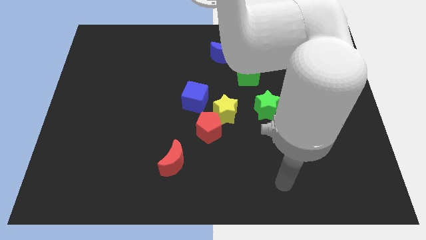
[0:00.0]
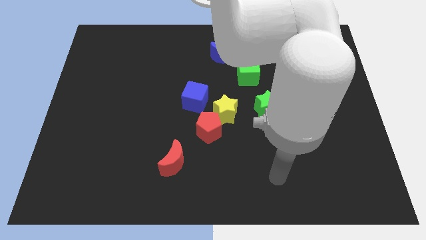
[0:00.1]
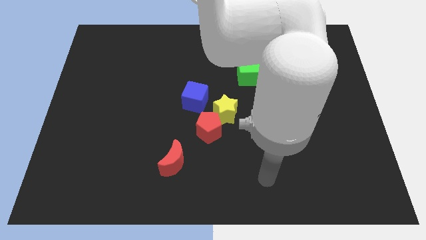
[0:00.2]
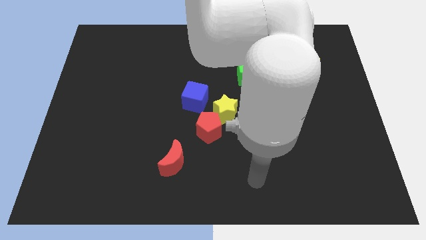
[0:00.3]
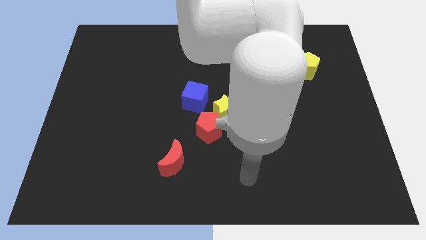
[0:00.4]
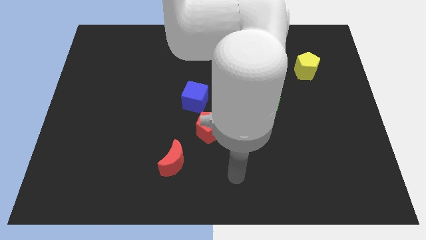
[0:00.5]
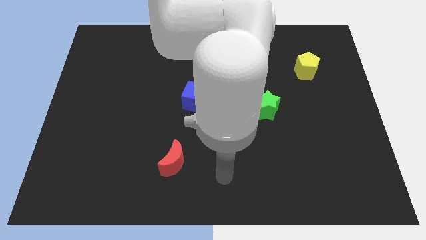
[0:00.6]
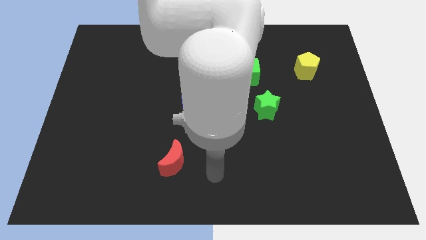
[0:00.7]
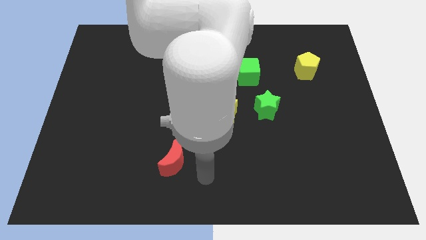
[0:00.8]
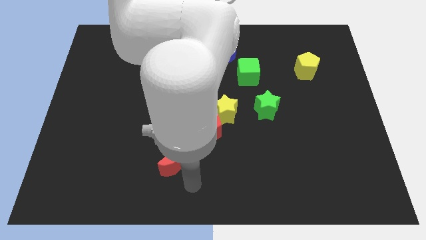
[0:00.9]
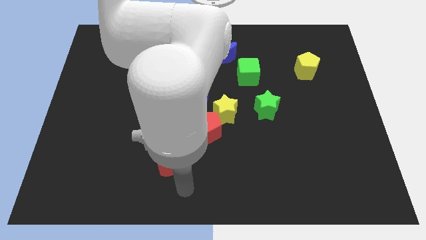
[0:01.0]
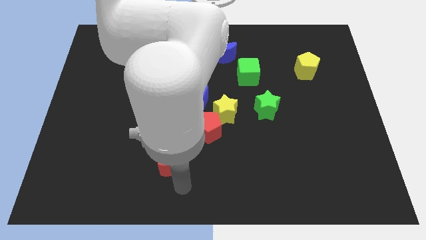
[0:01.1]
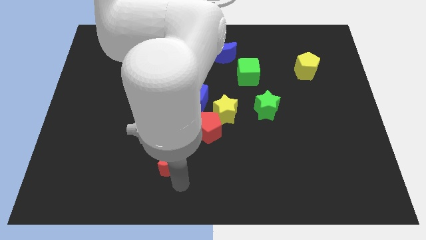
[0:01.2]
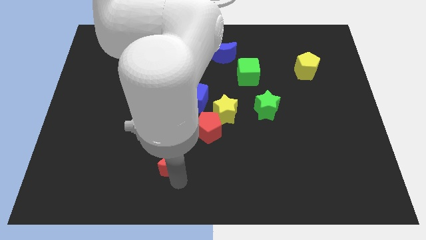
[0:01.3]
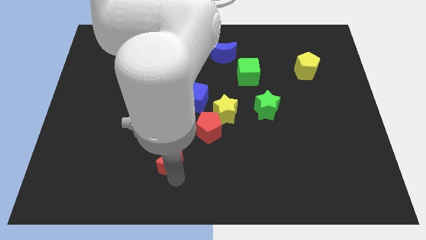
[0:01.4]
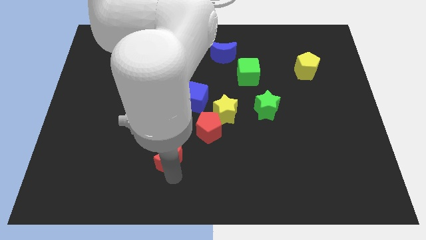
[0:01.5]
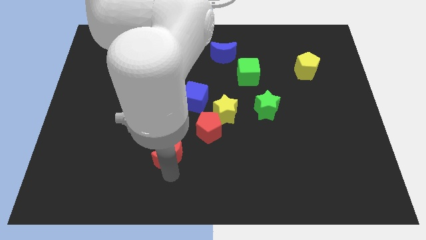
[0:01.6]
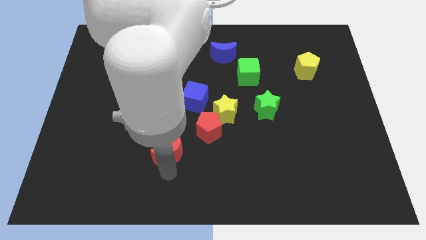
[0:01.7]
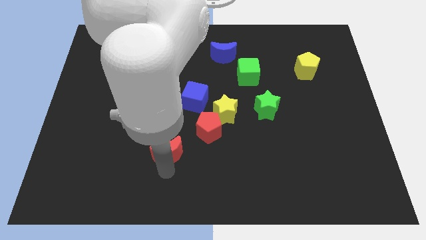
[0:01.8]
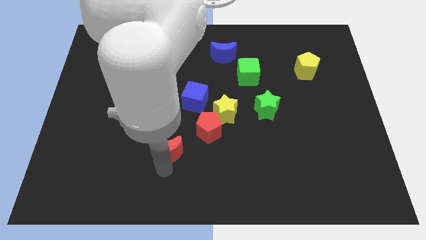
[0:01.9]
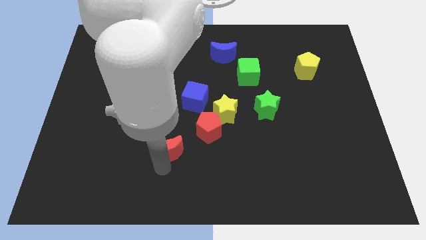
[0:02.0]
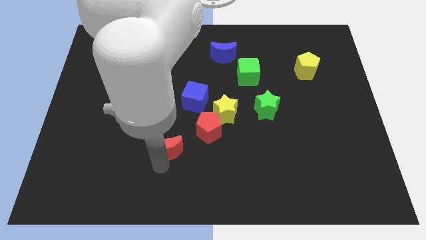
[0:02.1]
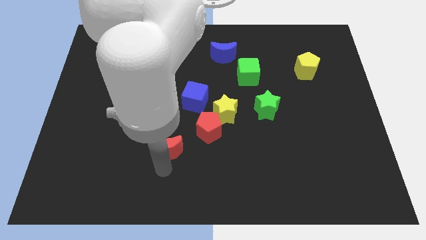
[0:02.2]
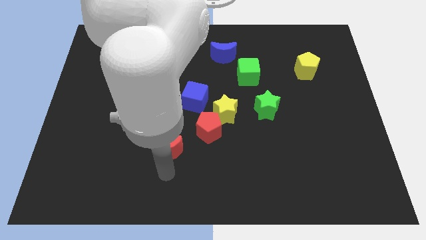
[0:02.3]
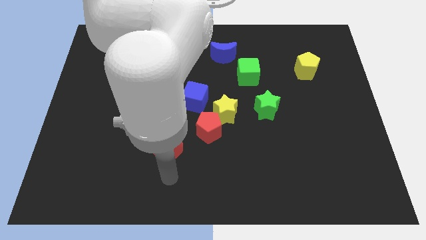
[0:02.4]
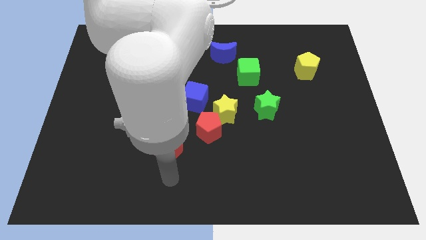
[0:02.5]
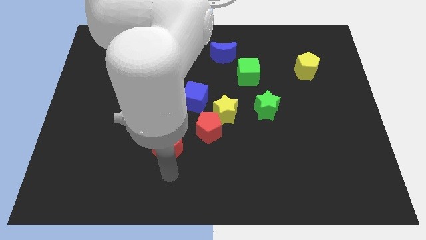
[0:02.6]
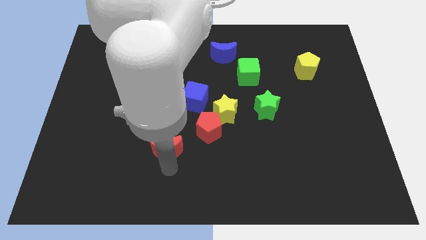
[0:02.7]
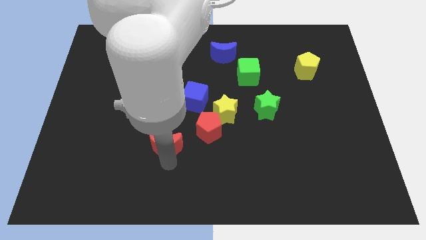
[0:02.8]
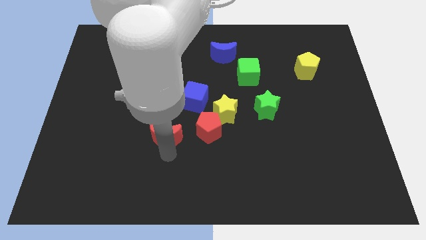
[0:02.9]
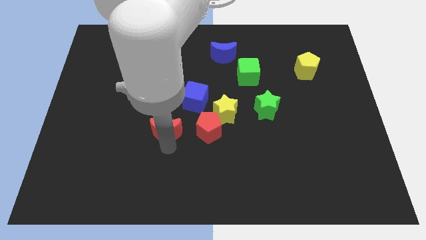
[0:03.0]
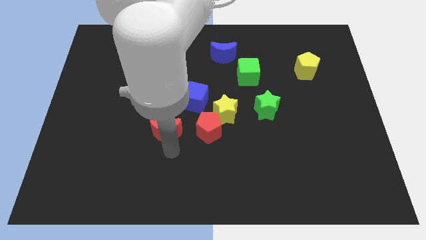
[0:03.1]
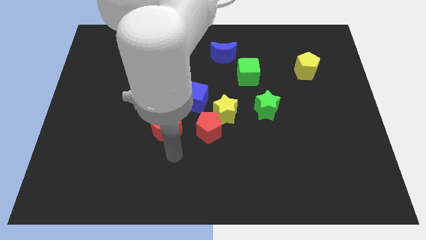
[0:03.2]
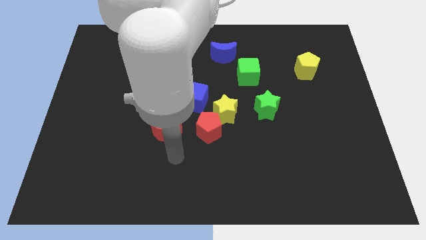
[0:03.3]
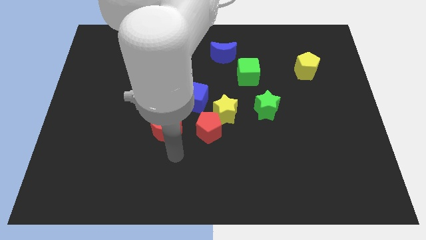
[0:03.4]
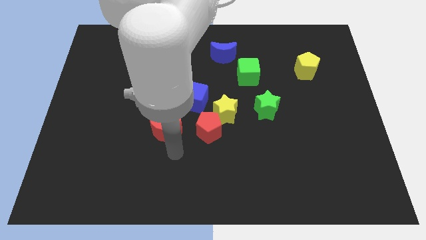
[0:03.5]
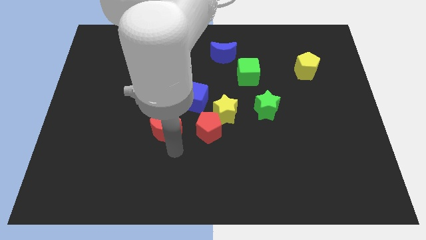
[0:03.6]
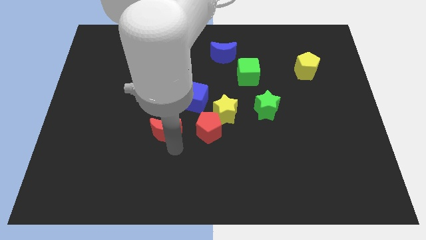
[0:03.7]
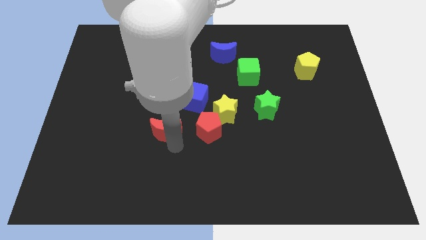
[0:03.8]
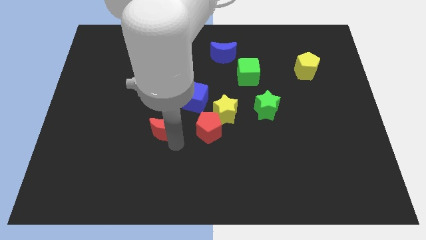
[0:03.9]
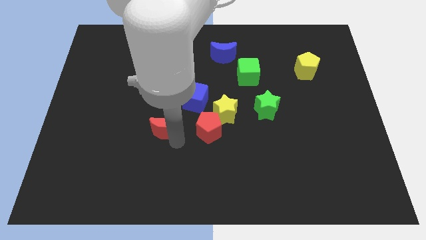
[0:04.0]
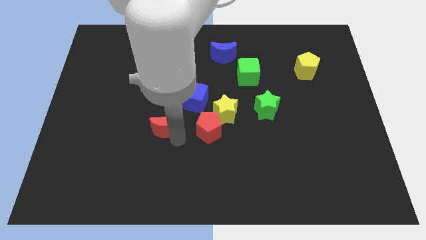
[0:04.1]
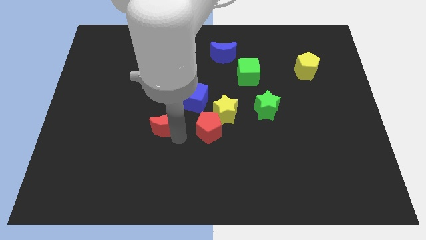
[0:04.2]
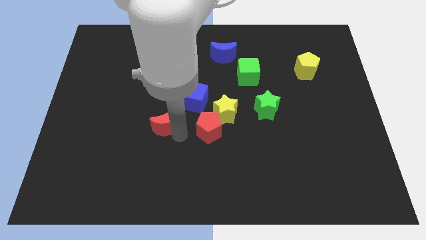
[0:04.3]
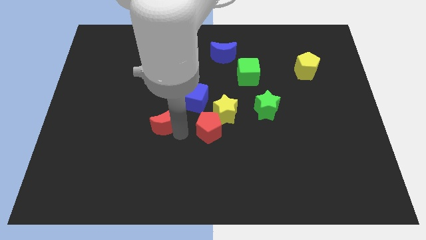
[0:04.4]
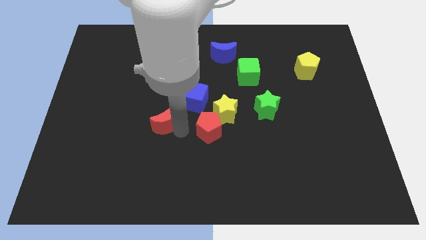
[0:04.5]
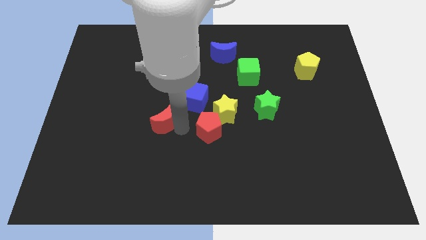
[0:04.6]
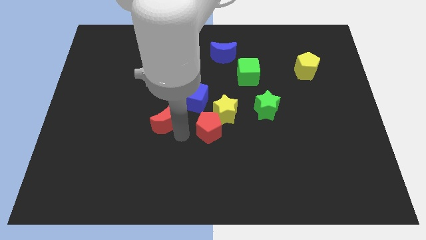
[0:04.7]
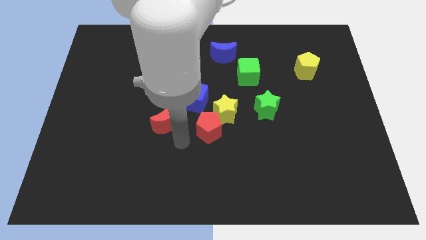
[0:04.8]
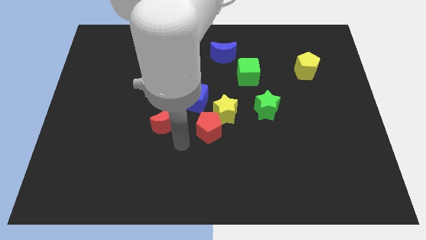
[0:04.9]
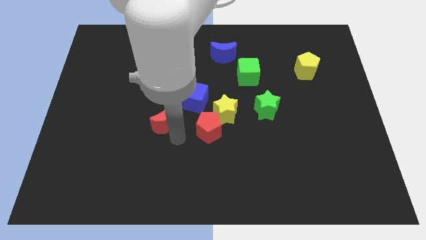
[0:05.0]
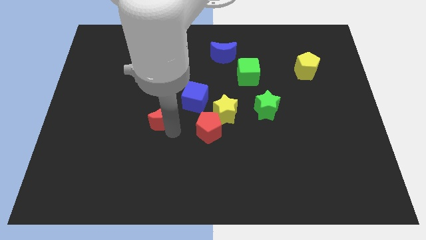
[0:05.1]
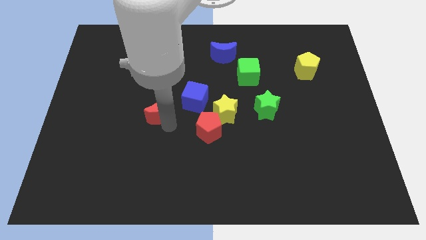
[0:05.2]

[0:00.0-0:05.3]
push the red moon just left of the blue cube

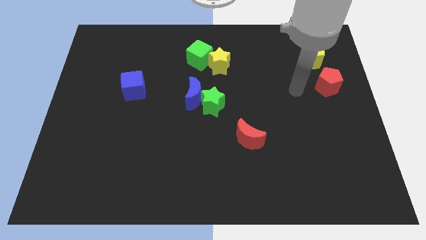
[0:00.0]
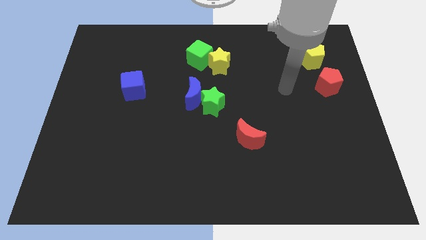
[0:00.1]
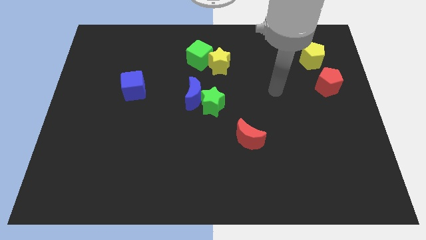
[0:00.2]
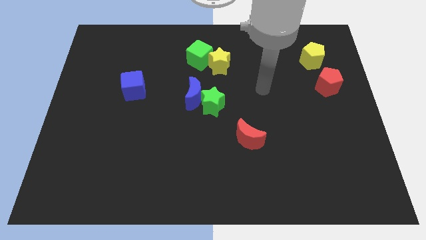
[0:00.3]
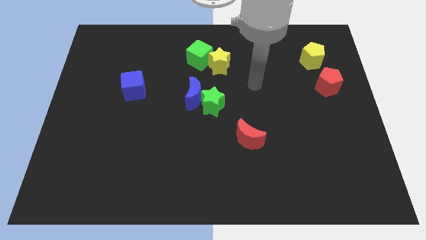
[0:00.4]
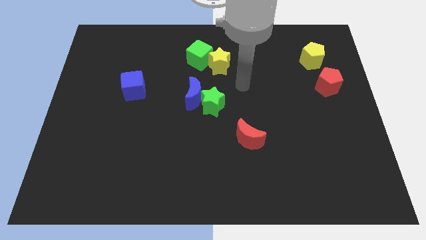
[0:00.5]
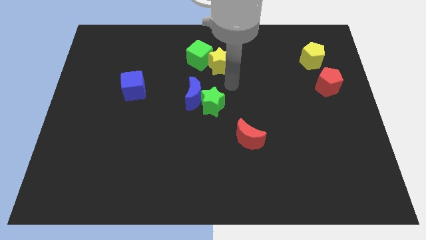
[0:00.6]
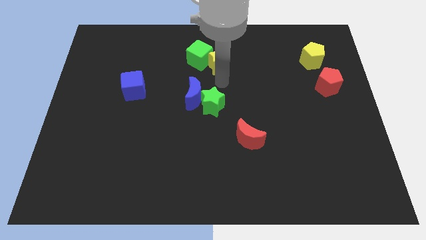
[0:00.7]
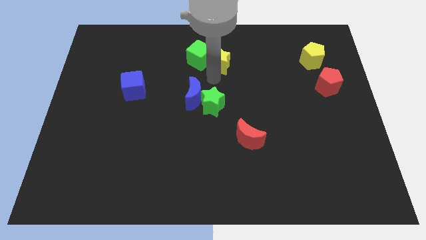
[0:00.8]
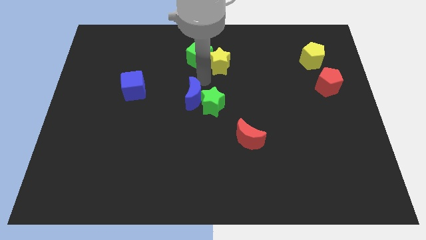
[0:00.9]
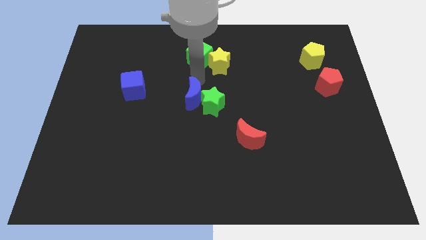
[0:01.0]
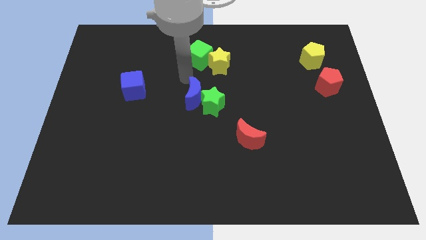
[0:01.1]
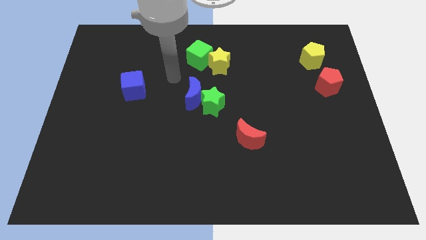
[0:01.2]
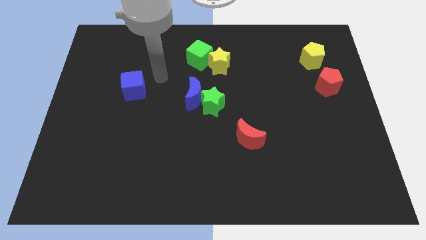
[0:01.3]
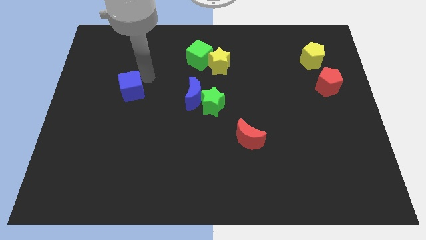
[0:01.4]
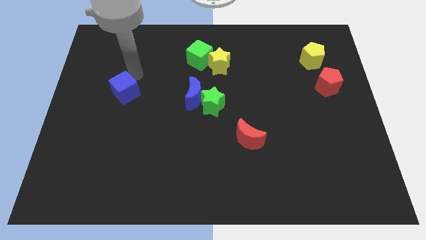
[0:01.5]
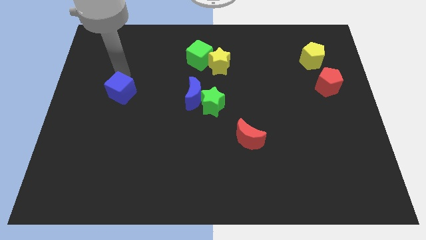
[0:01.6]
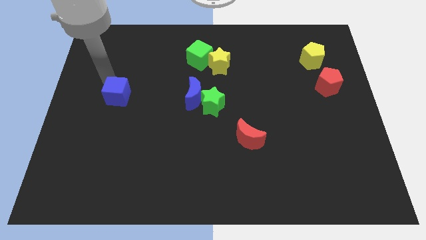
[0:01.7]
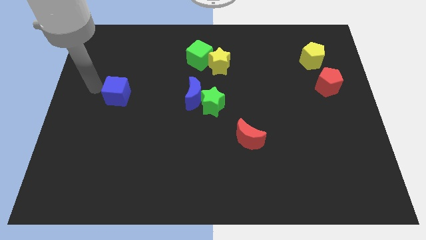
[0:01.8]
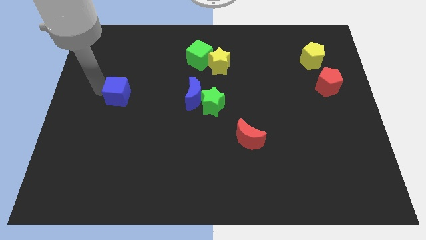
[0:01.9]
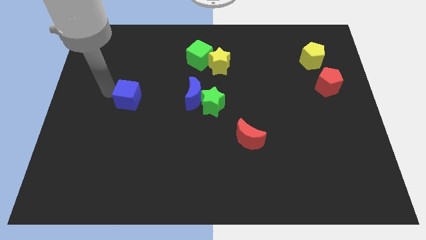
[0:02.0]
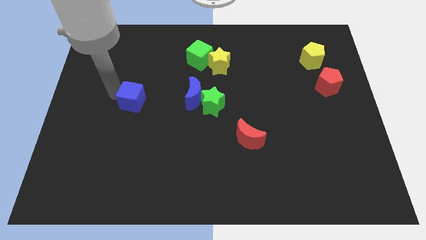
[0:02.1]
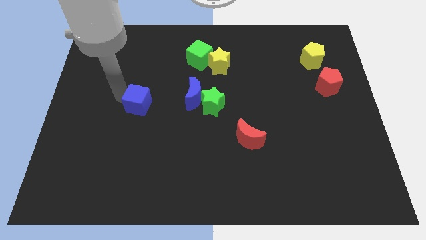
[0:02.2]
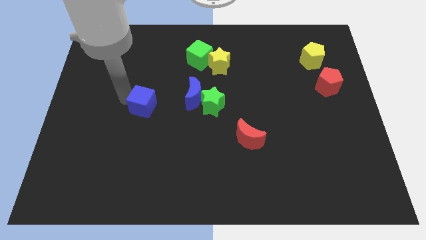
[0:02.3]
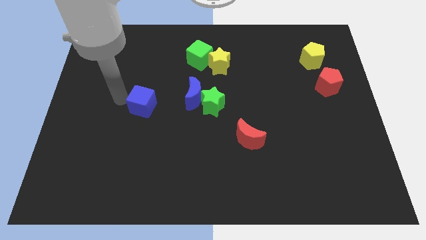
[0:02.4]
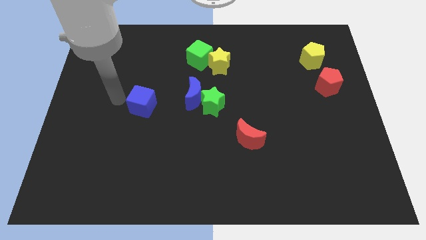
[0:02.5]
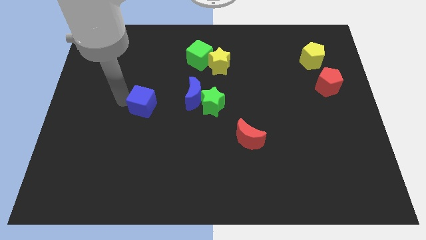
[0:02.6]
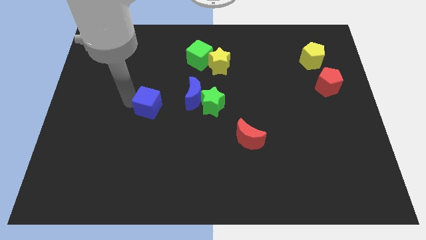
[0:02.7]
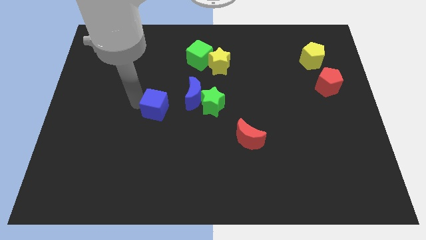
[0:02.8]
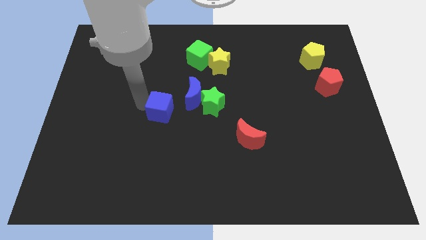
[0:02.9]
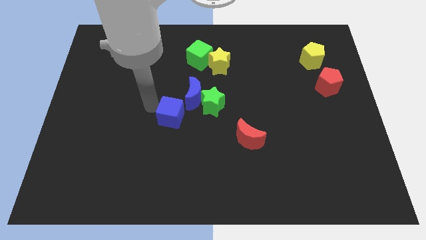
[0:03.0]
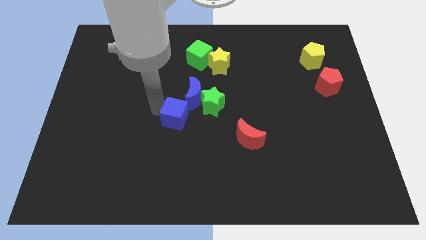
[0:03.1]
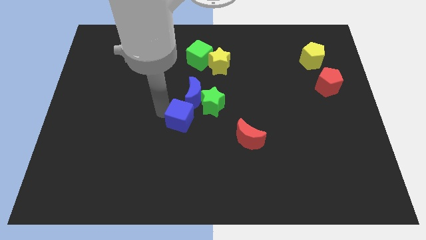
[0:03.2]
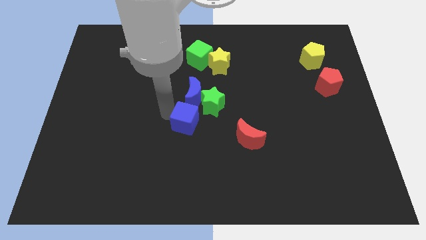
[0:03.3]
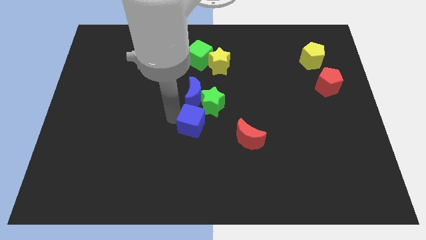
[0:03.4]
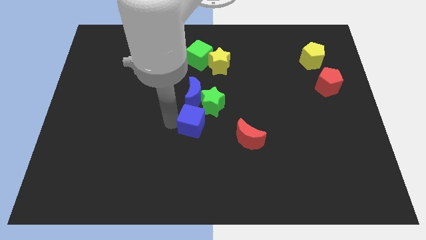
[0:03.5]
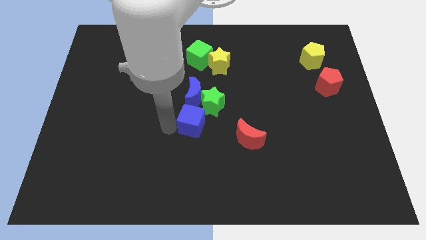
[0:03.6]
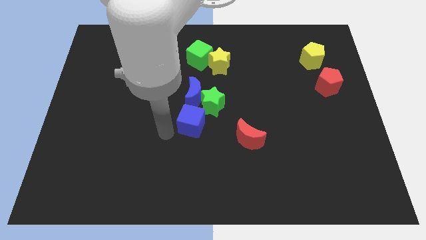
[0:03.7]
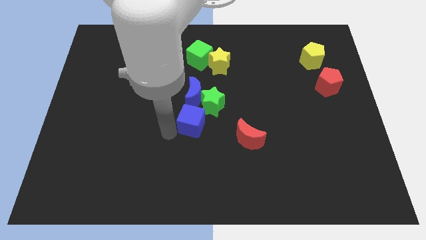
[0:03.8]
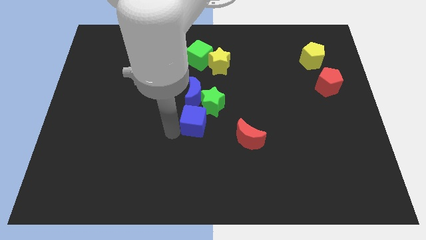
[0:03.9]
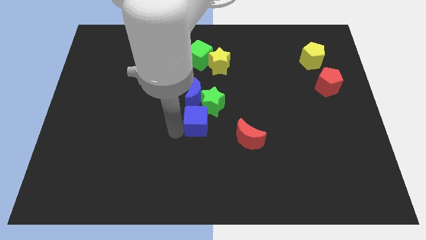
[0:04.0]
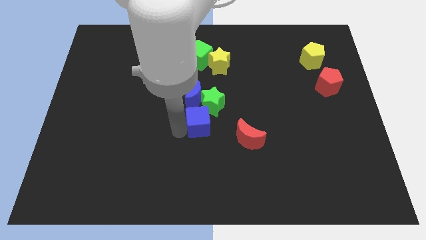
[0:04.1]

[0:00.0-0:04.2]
put the blue cube diagonally down and to the right of the blue moon
